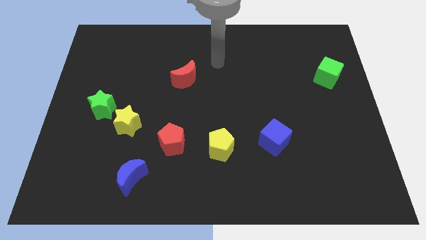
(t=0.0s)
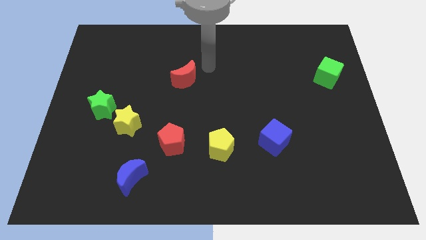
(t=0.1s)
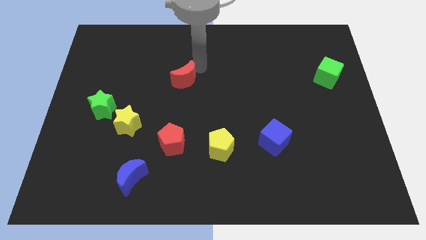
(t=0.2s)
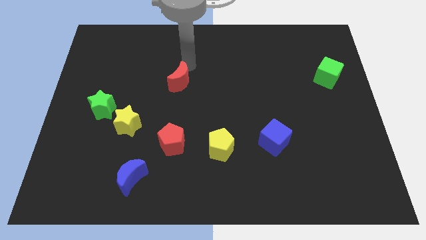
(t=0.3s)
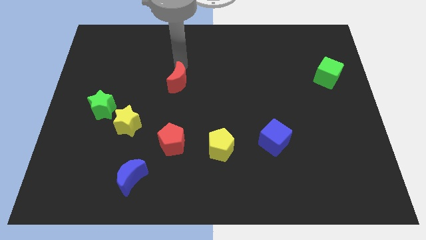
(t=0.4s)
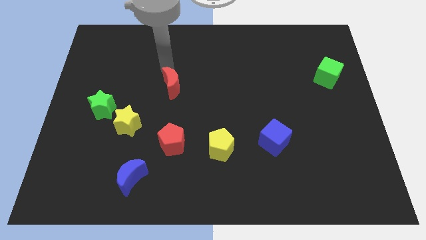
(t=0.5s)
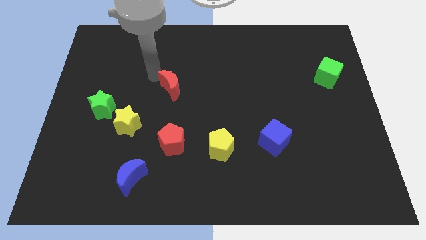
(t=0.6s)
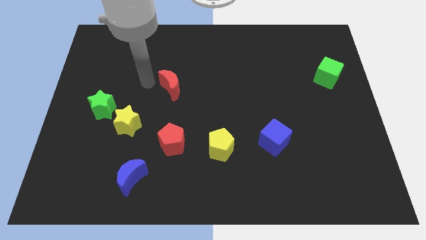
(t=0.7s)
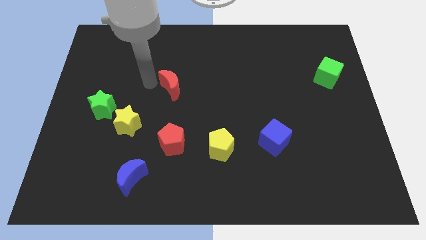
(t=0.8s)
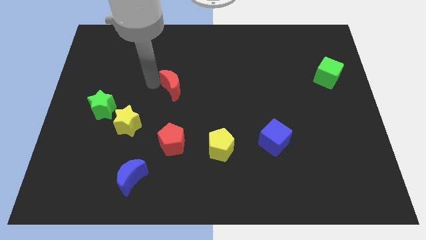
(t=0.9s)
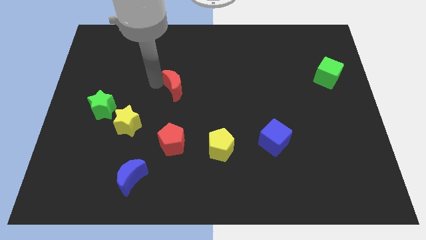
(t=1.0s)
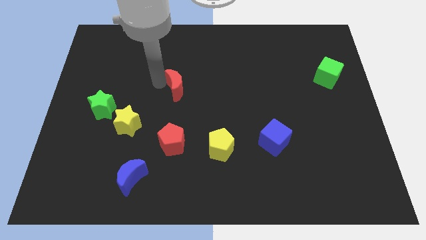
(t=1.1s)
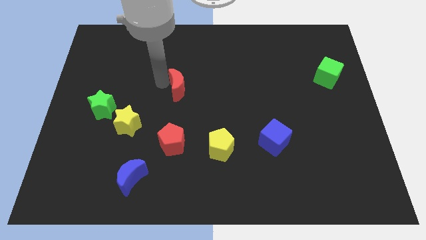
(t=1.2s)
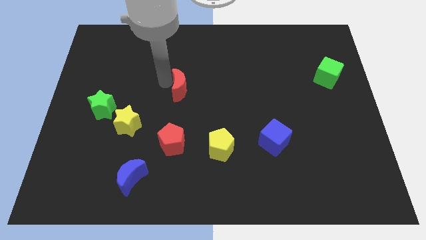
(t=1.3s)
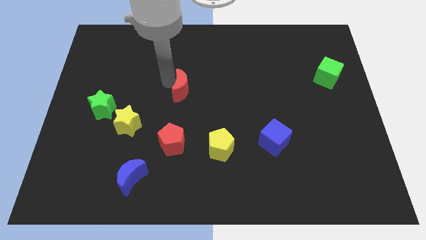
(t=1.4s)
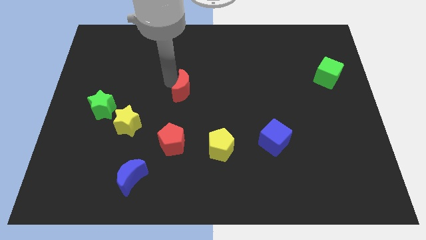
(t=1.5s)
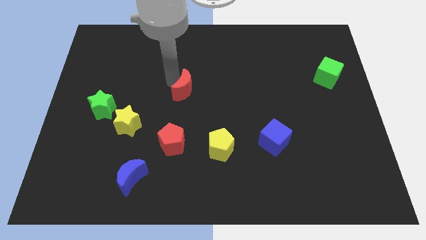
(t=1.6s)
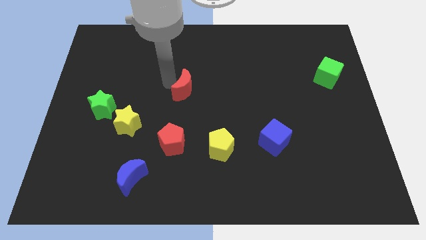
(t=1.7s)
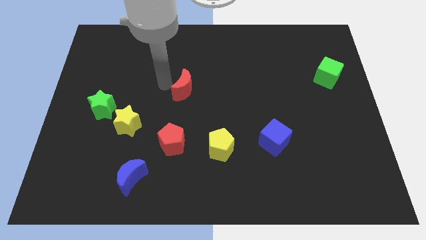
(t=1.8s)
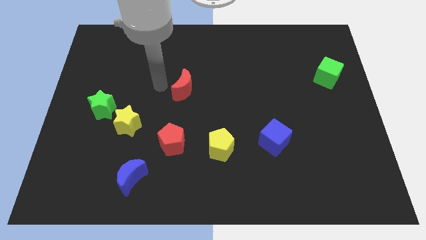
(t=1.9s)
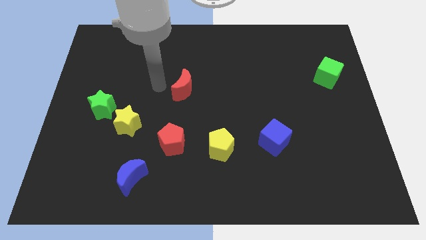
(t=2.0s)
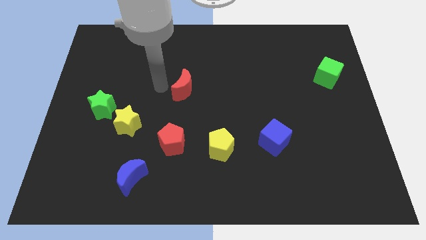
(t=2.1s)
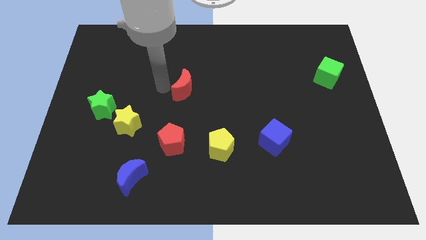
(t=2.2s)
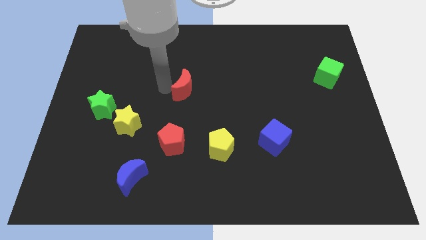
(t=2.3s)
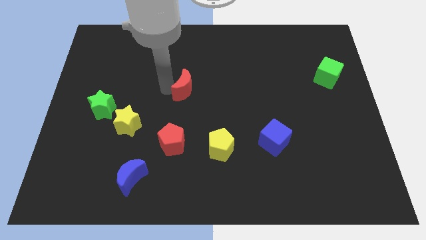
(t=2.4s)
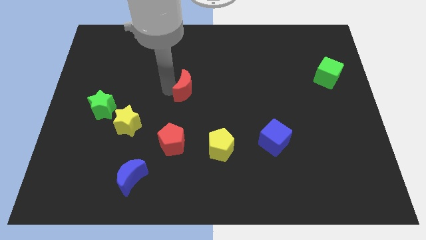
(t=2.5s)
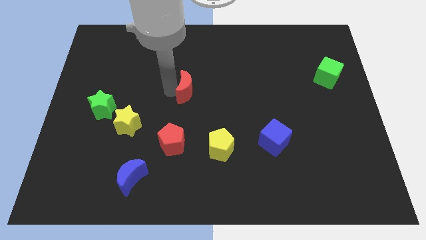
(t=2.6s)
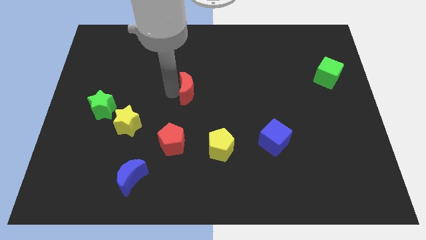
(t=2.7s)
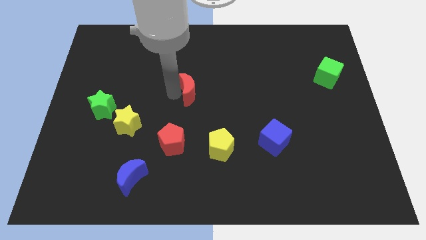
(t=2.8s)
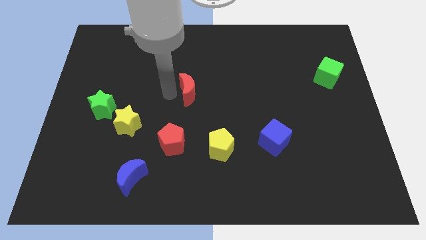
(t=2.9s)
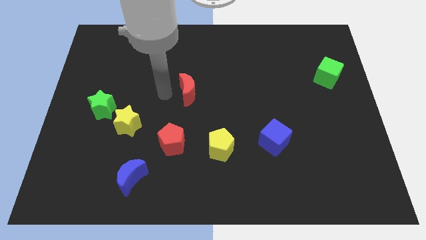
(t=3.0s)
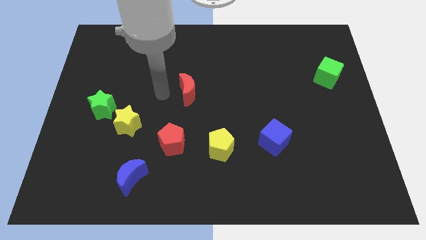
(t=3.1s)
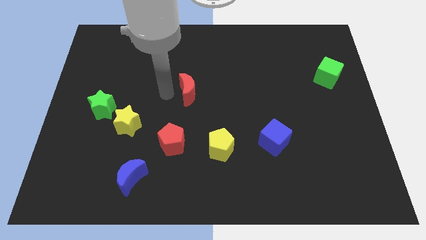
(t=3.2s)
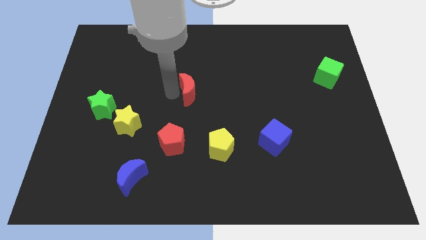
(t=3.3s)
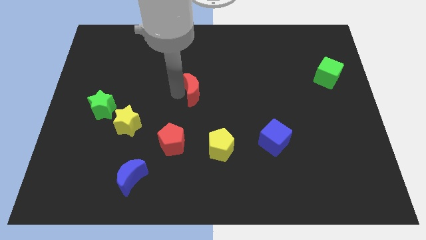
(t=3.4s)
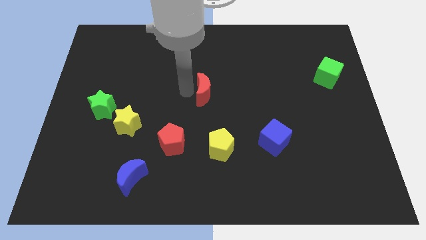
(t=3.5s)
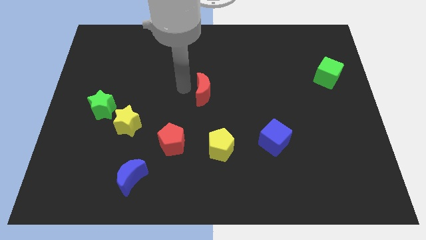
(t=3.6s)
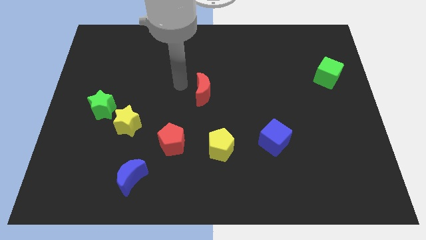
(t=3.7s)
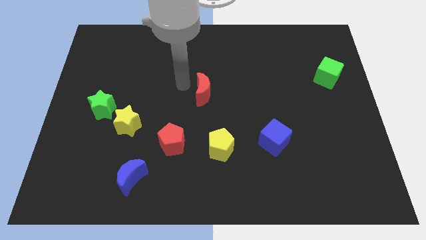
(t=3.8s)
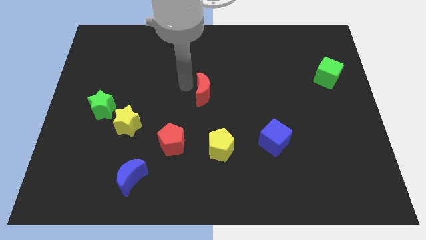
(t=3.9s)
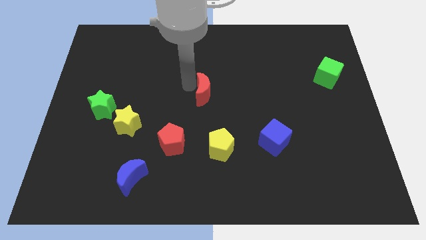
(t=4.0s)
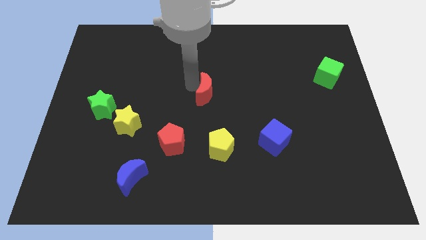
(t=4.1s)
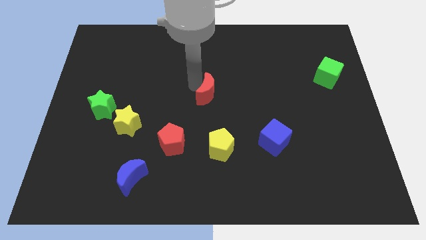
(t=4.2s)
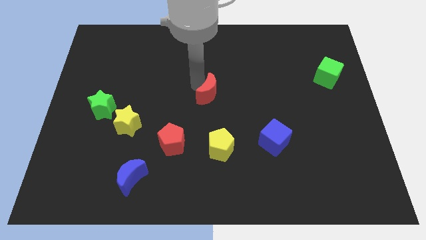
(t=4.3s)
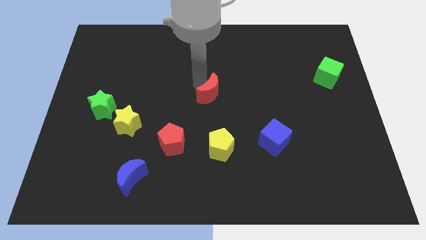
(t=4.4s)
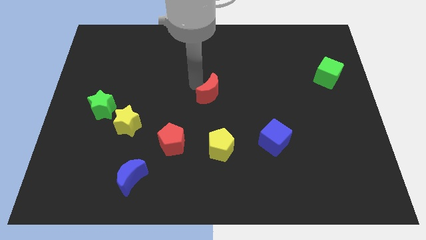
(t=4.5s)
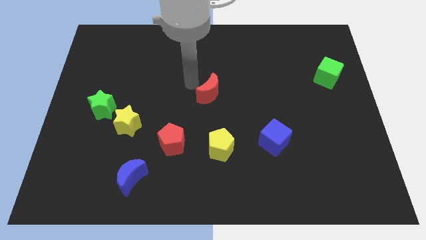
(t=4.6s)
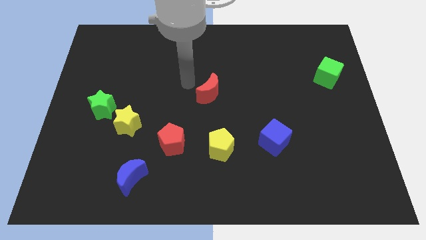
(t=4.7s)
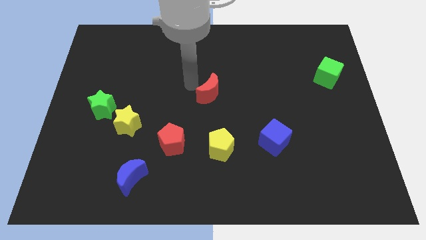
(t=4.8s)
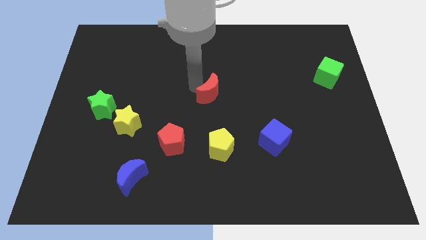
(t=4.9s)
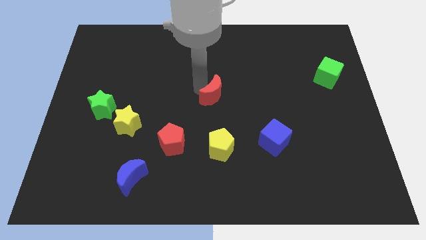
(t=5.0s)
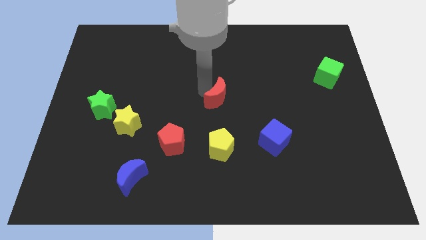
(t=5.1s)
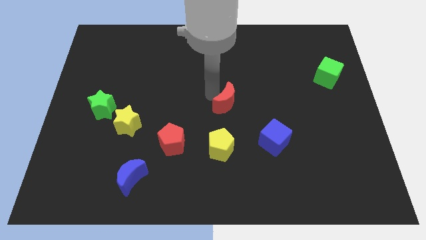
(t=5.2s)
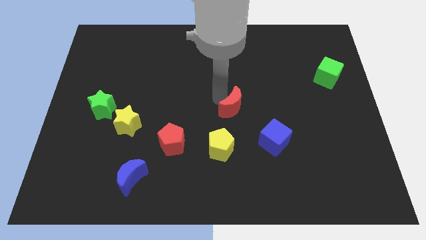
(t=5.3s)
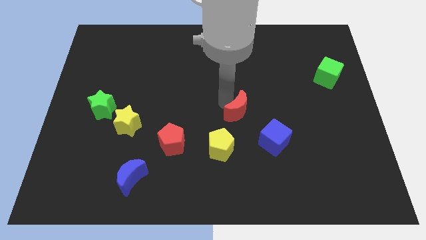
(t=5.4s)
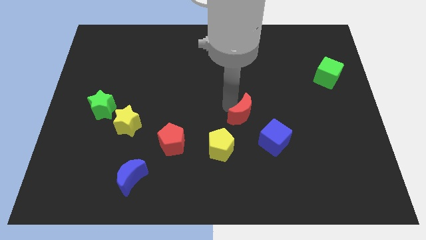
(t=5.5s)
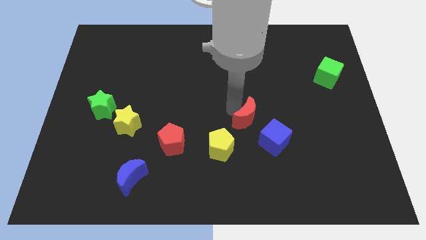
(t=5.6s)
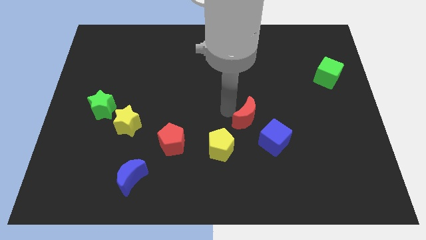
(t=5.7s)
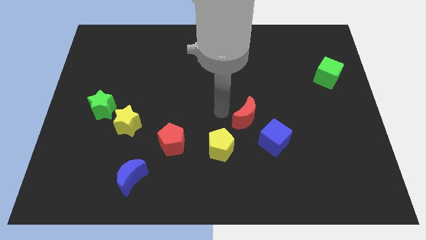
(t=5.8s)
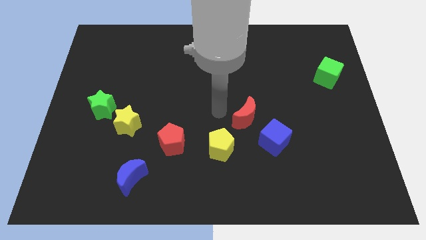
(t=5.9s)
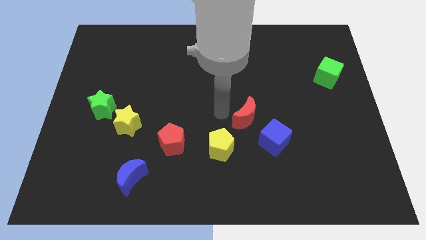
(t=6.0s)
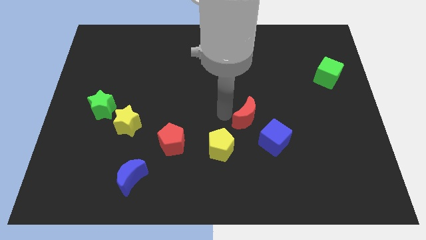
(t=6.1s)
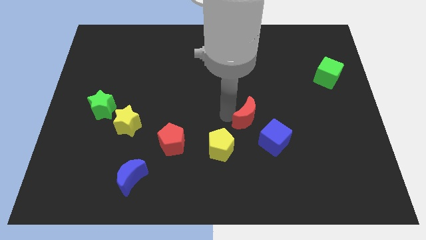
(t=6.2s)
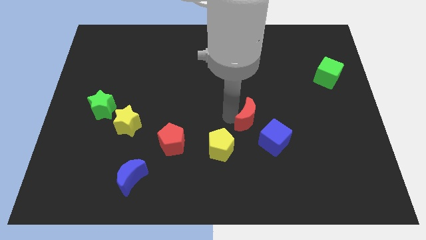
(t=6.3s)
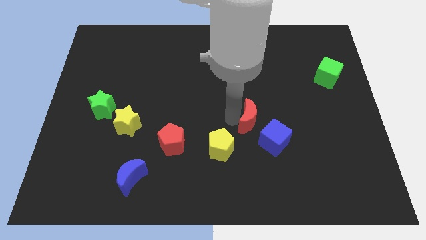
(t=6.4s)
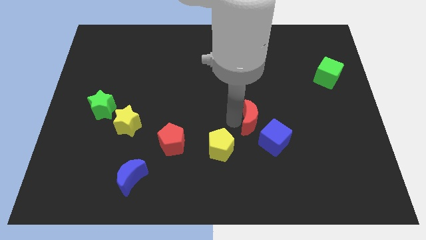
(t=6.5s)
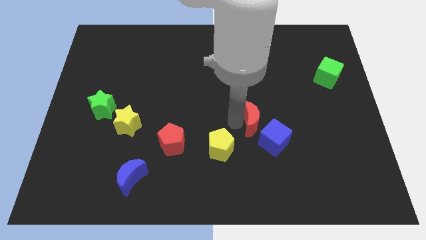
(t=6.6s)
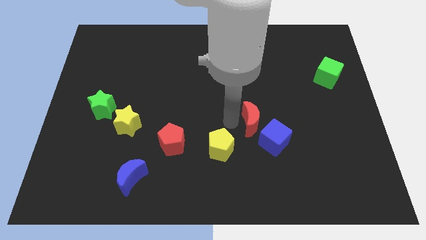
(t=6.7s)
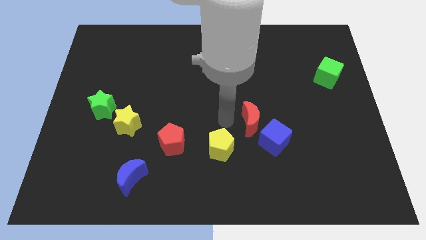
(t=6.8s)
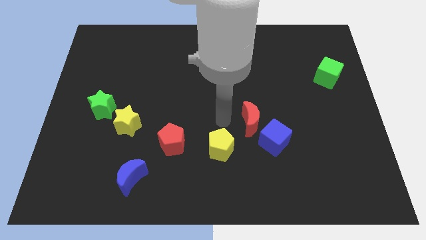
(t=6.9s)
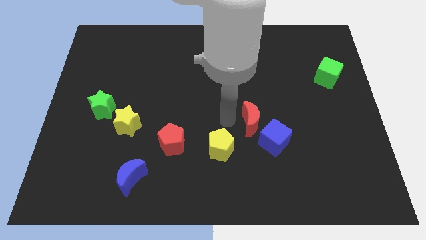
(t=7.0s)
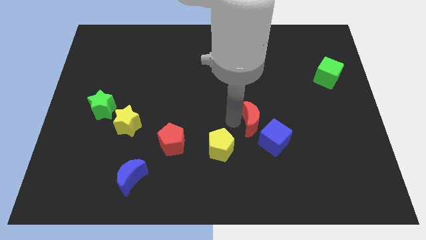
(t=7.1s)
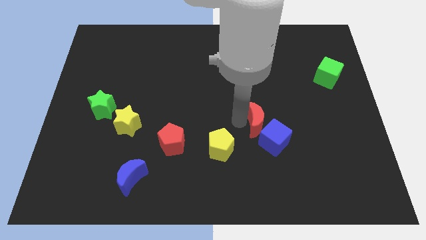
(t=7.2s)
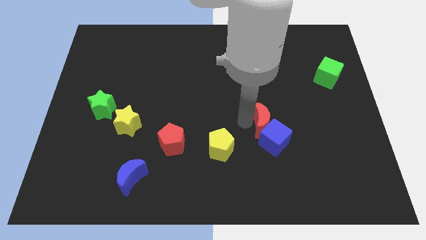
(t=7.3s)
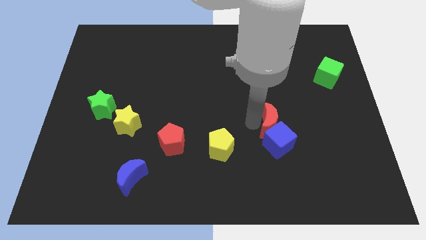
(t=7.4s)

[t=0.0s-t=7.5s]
slide the red moon to the top right of the blue cube
